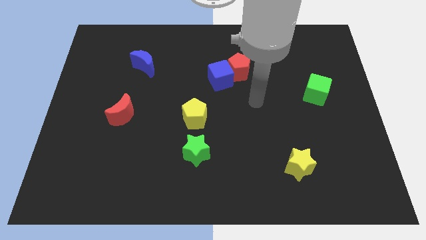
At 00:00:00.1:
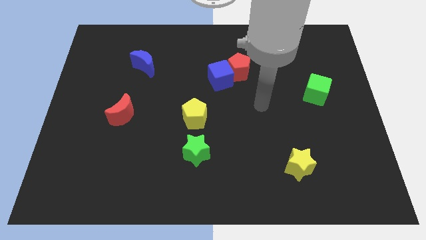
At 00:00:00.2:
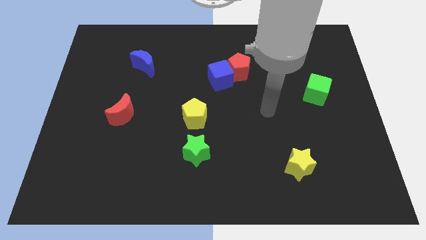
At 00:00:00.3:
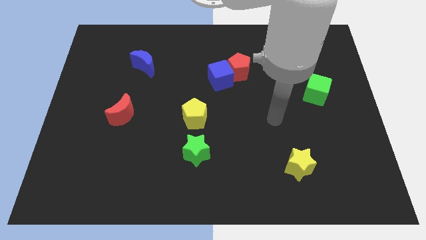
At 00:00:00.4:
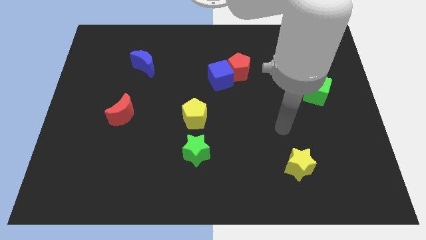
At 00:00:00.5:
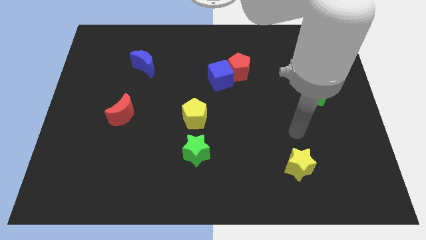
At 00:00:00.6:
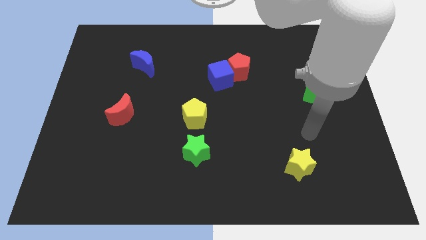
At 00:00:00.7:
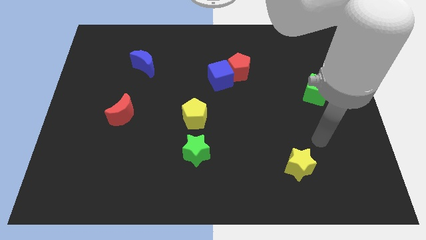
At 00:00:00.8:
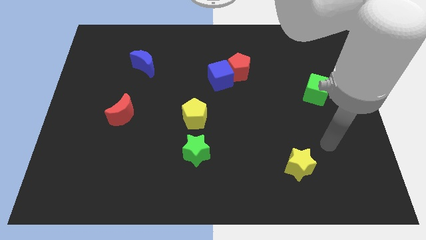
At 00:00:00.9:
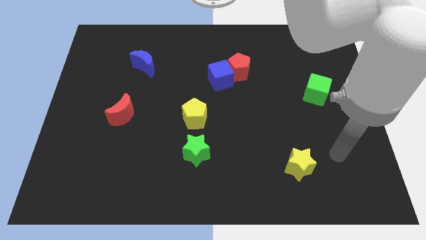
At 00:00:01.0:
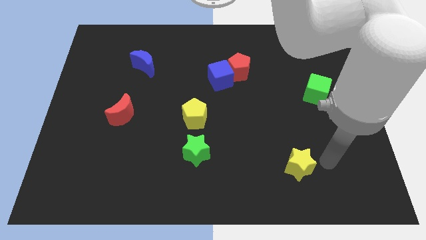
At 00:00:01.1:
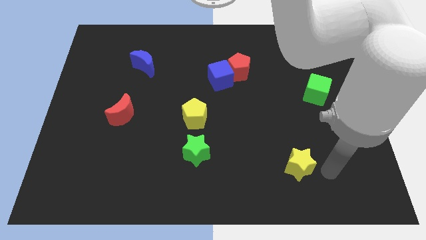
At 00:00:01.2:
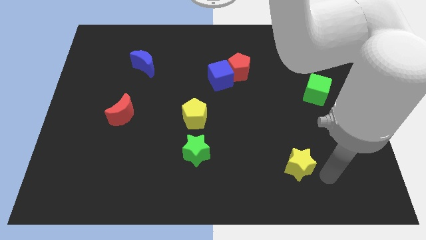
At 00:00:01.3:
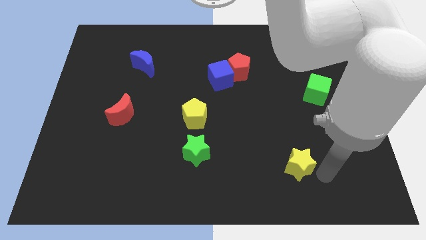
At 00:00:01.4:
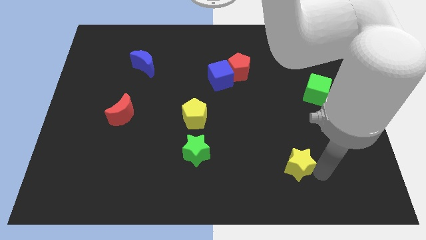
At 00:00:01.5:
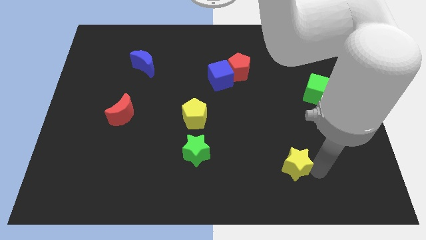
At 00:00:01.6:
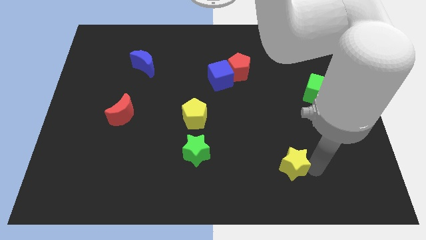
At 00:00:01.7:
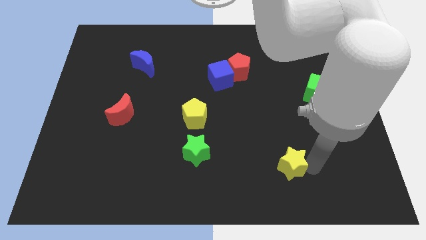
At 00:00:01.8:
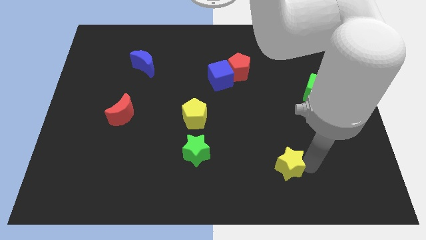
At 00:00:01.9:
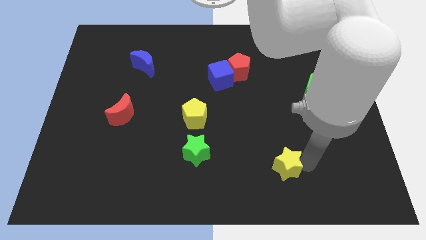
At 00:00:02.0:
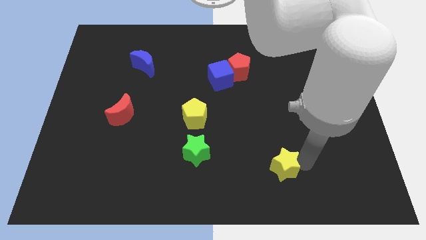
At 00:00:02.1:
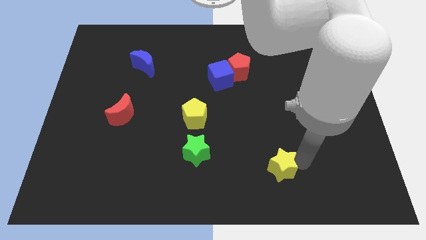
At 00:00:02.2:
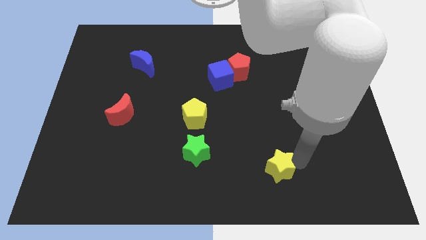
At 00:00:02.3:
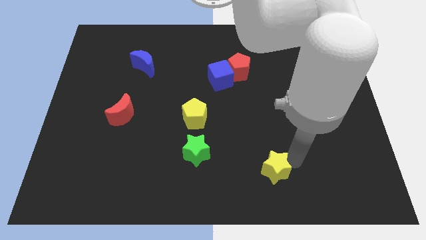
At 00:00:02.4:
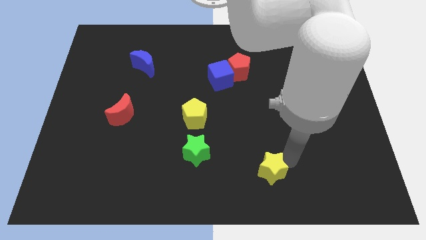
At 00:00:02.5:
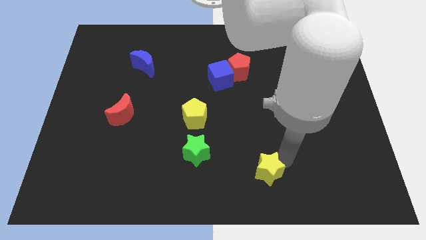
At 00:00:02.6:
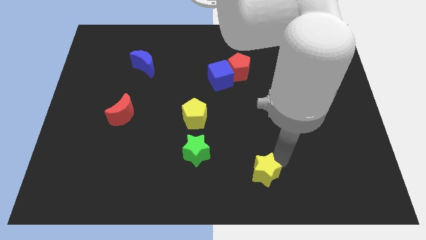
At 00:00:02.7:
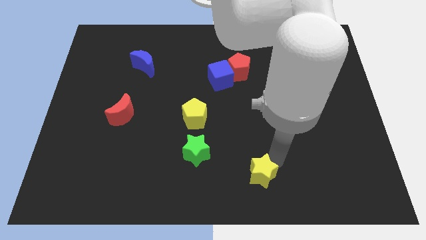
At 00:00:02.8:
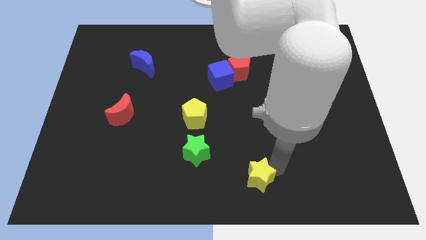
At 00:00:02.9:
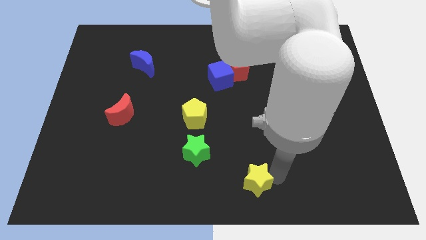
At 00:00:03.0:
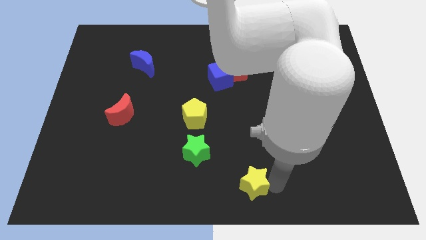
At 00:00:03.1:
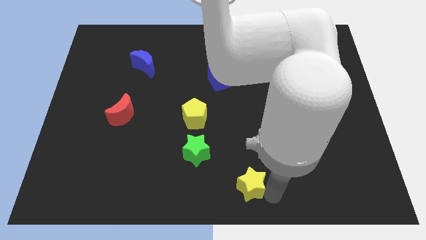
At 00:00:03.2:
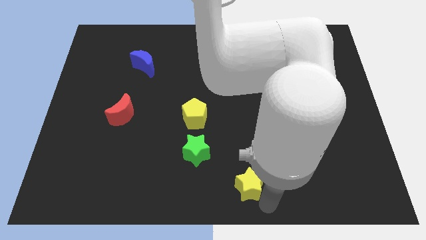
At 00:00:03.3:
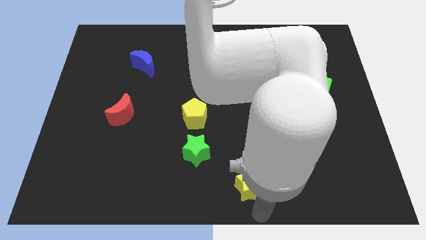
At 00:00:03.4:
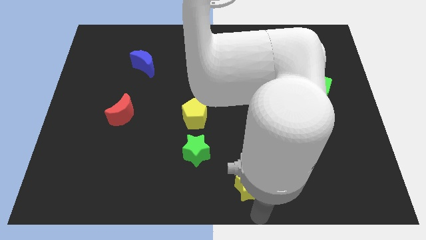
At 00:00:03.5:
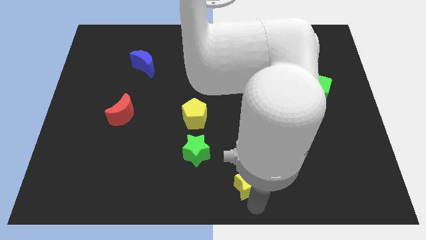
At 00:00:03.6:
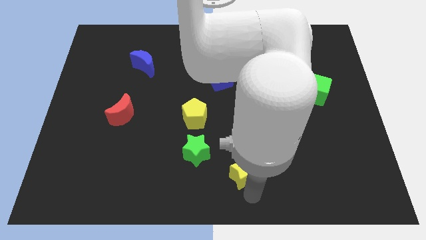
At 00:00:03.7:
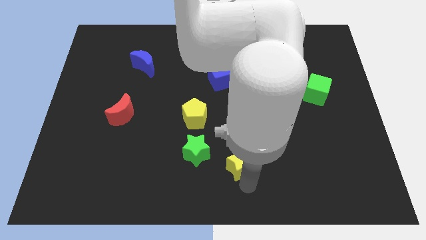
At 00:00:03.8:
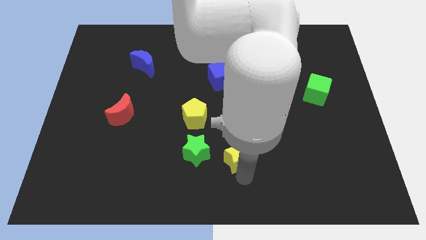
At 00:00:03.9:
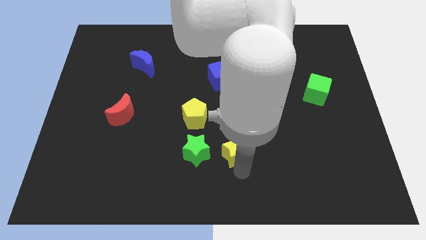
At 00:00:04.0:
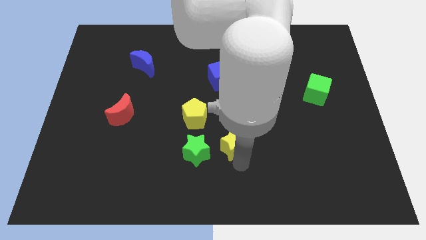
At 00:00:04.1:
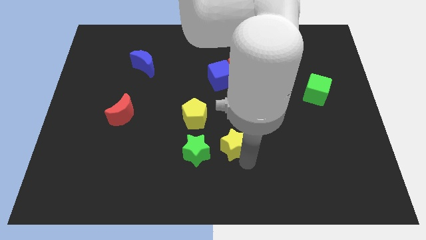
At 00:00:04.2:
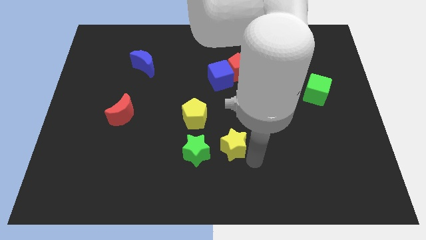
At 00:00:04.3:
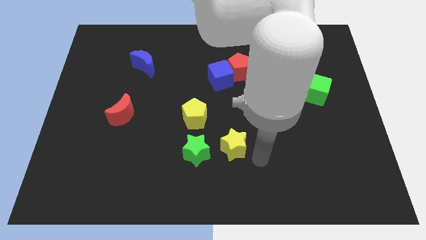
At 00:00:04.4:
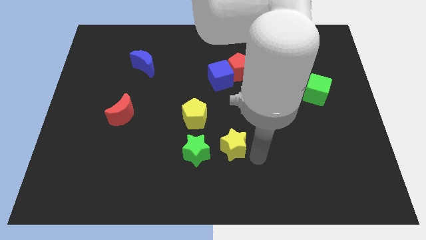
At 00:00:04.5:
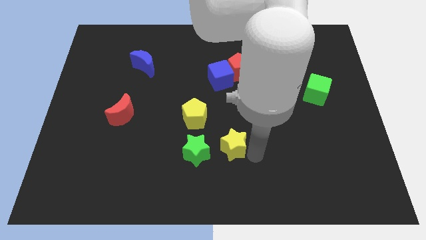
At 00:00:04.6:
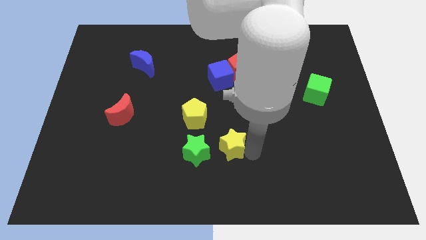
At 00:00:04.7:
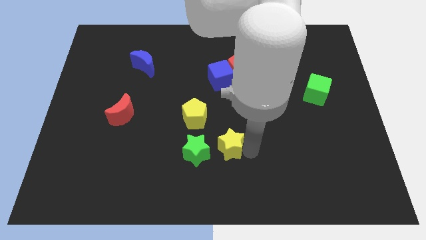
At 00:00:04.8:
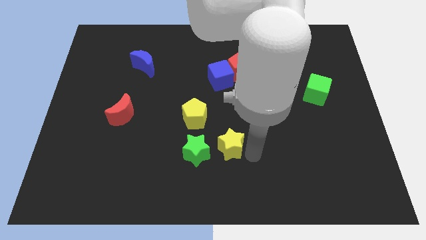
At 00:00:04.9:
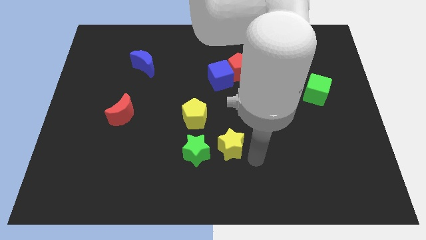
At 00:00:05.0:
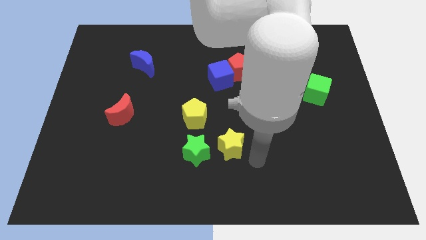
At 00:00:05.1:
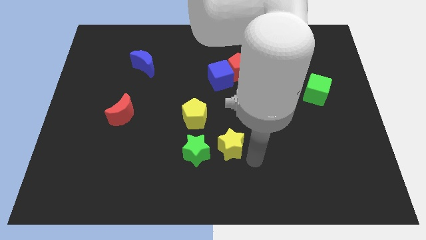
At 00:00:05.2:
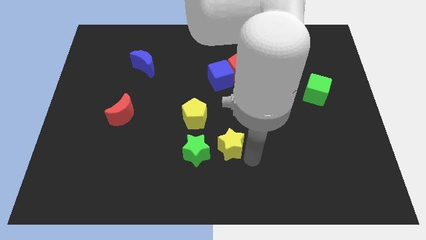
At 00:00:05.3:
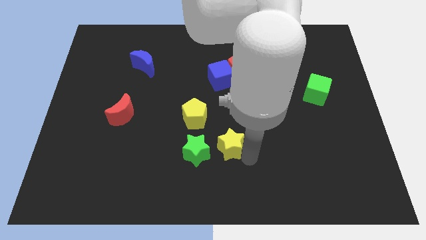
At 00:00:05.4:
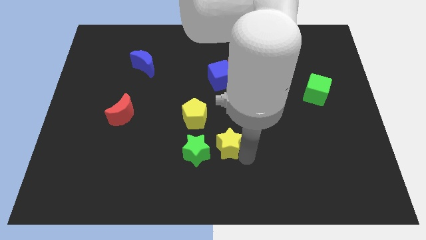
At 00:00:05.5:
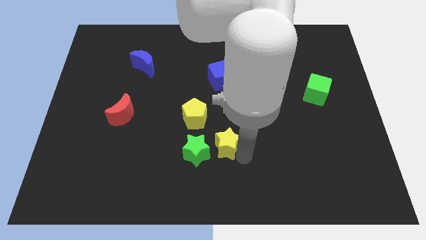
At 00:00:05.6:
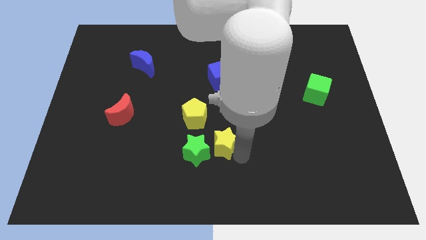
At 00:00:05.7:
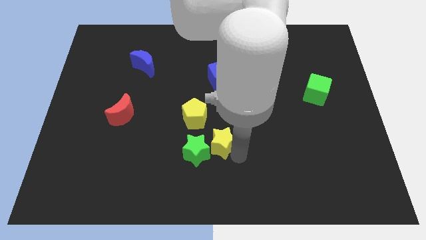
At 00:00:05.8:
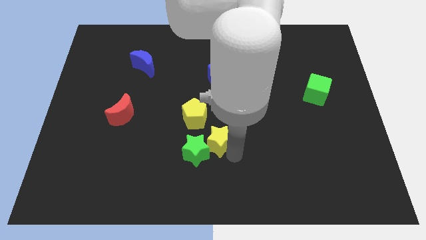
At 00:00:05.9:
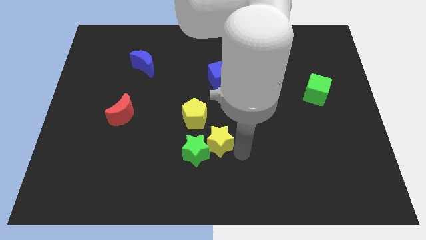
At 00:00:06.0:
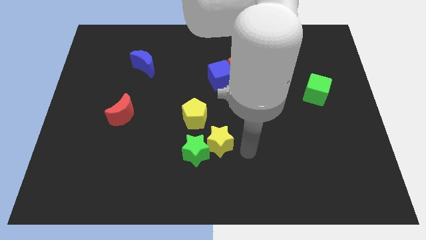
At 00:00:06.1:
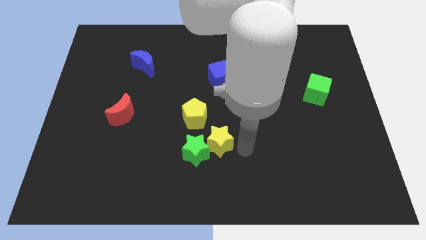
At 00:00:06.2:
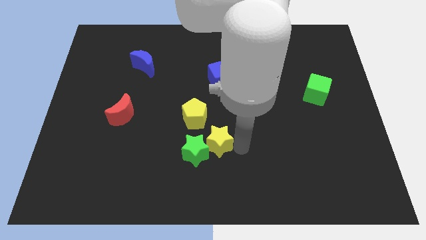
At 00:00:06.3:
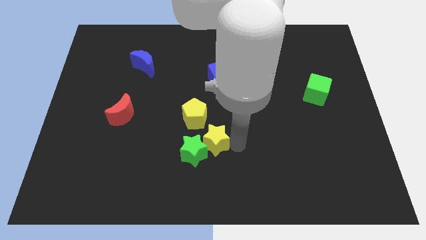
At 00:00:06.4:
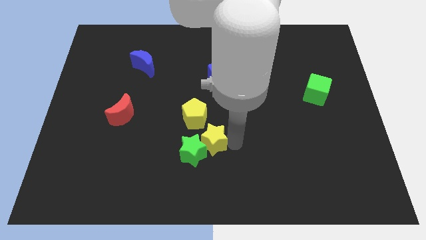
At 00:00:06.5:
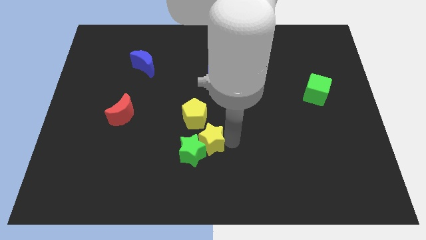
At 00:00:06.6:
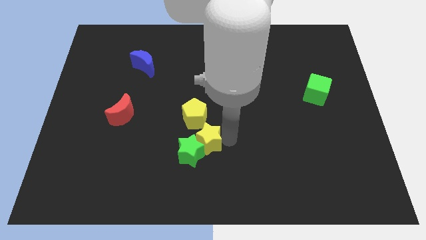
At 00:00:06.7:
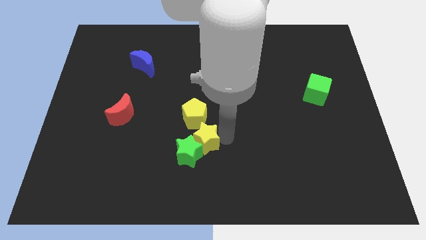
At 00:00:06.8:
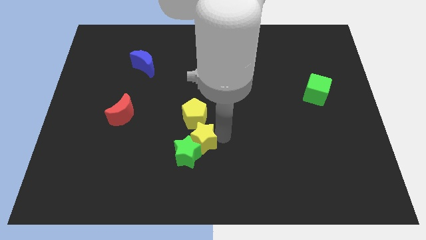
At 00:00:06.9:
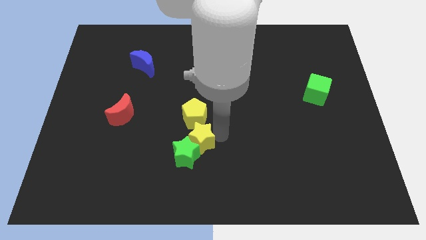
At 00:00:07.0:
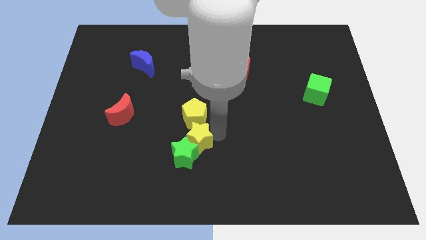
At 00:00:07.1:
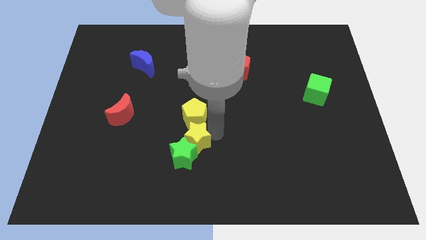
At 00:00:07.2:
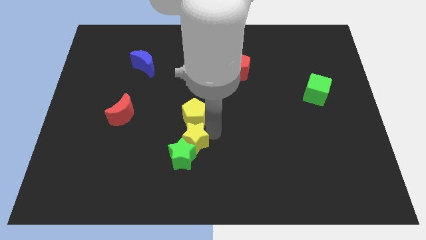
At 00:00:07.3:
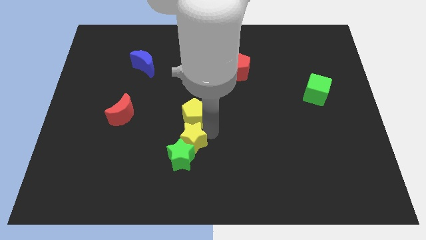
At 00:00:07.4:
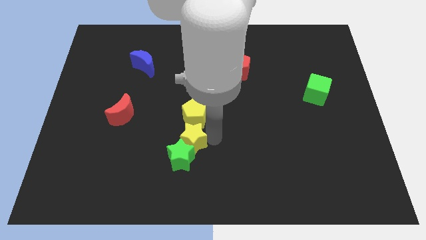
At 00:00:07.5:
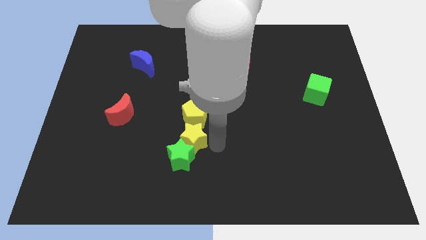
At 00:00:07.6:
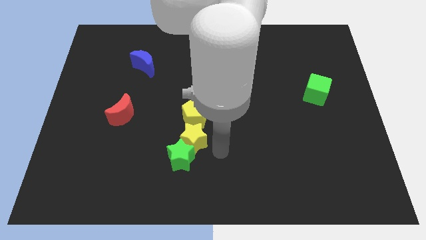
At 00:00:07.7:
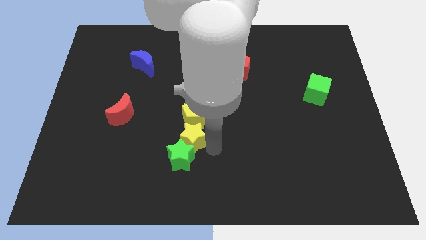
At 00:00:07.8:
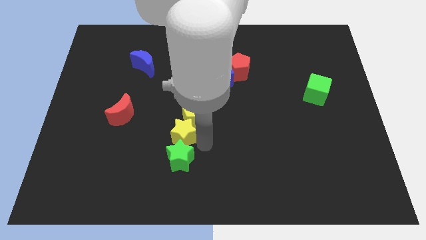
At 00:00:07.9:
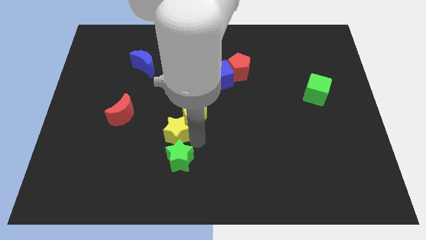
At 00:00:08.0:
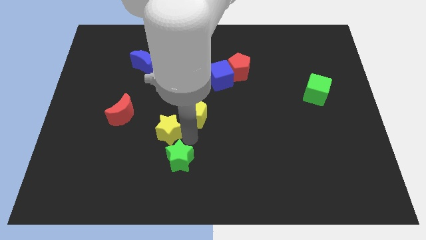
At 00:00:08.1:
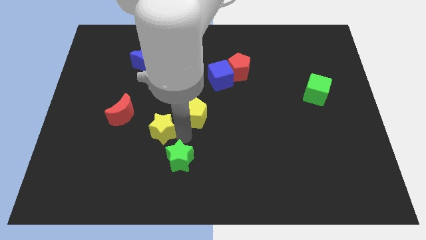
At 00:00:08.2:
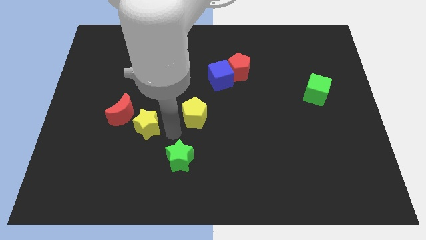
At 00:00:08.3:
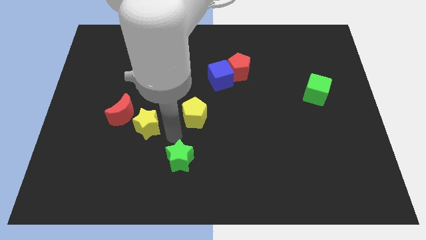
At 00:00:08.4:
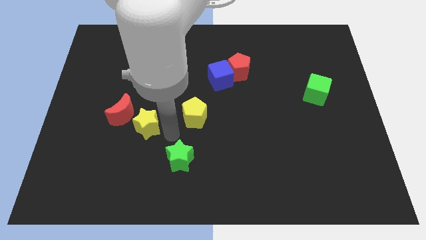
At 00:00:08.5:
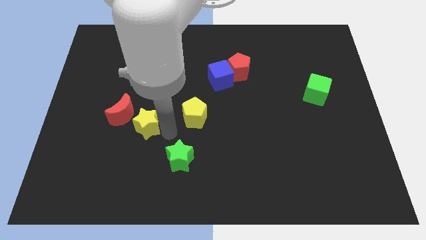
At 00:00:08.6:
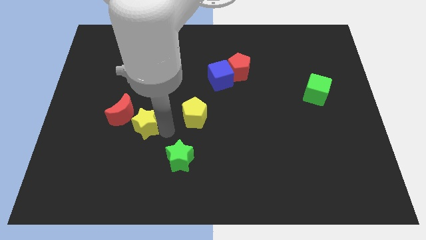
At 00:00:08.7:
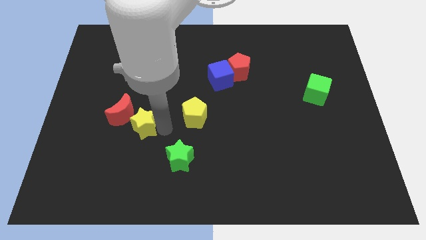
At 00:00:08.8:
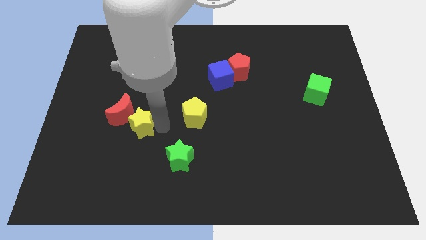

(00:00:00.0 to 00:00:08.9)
move the yellow star to the red moon
